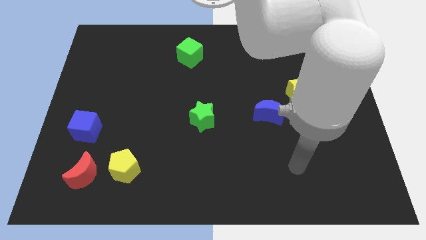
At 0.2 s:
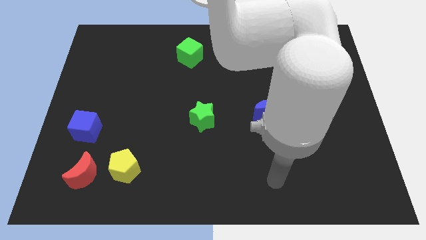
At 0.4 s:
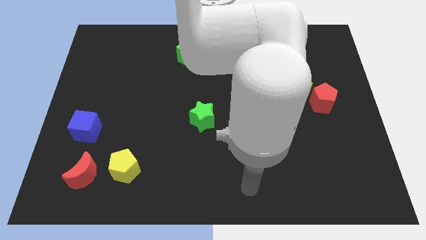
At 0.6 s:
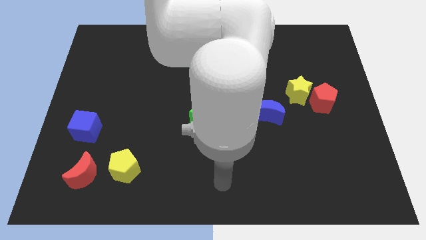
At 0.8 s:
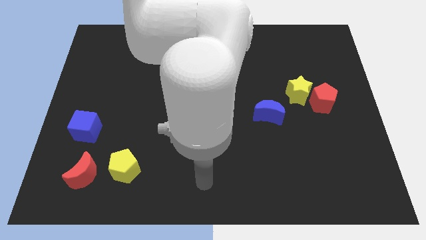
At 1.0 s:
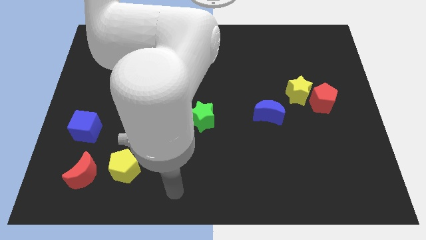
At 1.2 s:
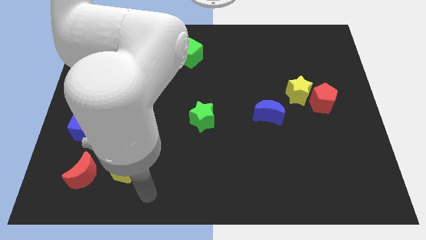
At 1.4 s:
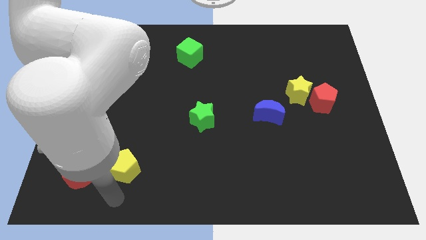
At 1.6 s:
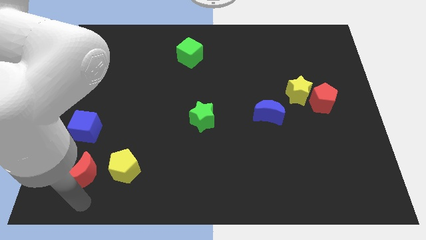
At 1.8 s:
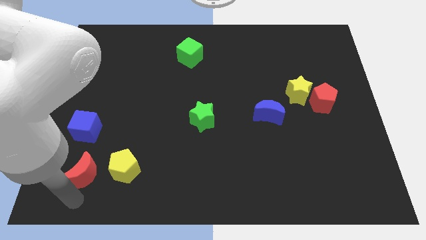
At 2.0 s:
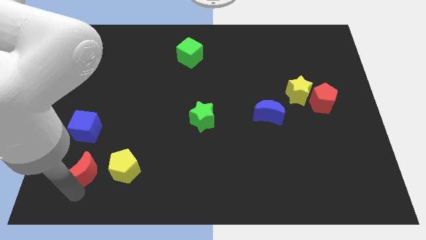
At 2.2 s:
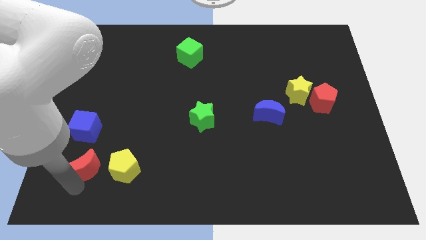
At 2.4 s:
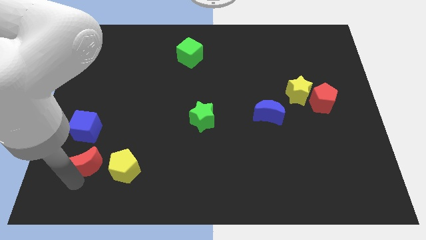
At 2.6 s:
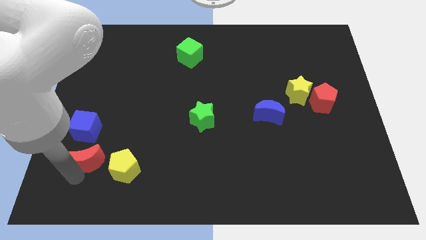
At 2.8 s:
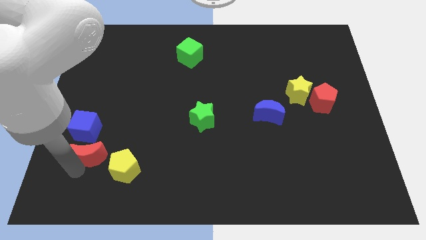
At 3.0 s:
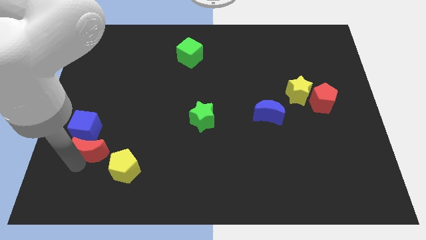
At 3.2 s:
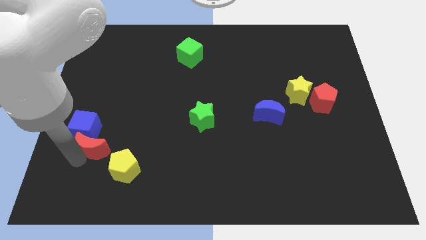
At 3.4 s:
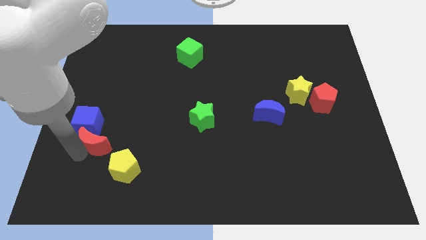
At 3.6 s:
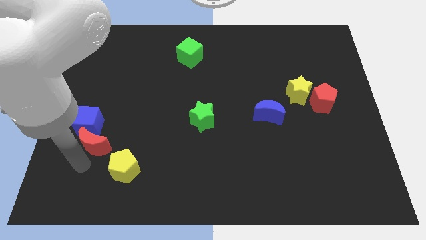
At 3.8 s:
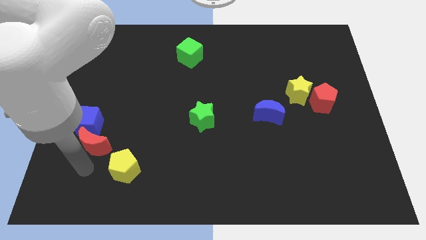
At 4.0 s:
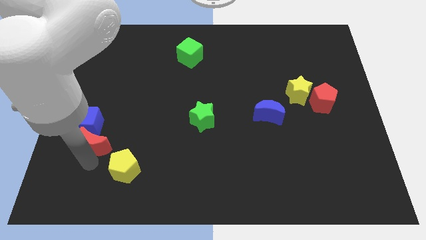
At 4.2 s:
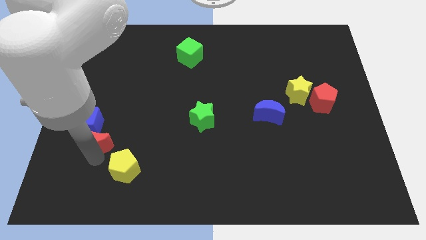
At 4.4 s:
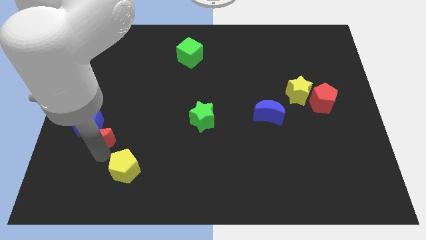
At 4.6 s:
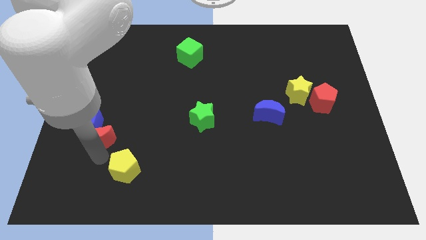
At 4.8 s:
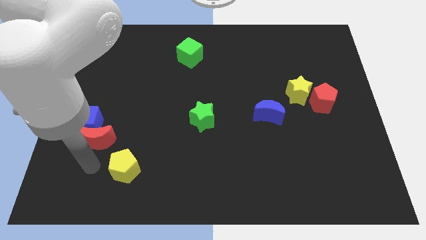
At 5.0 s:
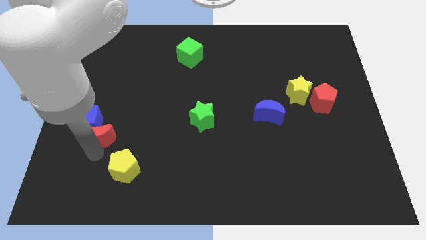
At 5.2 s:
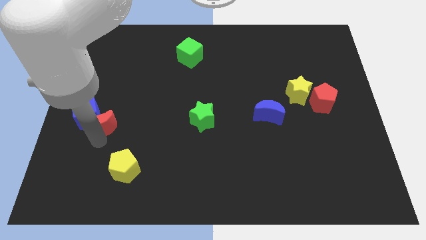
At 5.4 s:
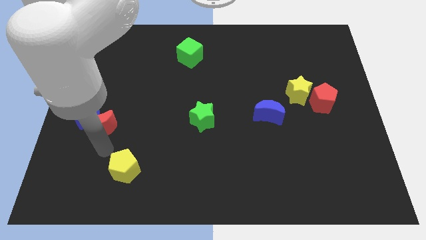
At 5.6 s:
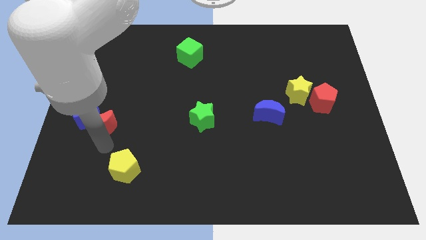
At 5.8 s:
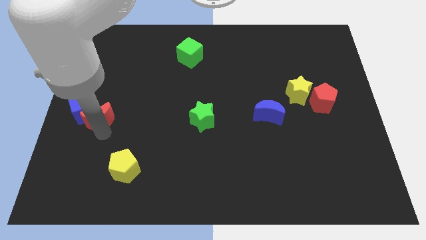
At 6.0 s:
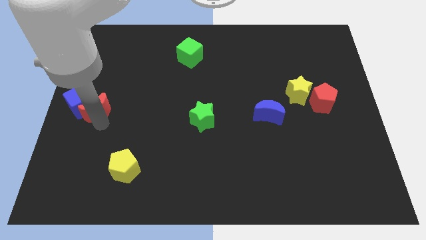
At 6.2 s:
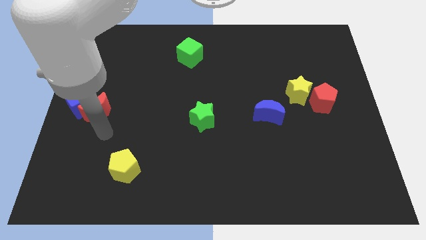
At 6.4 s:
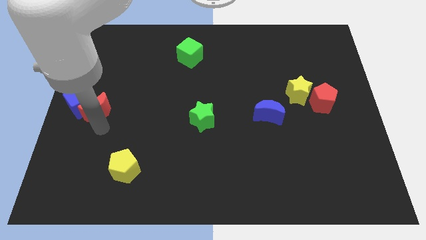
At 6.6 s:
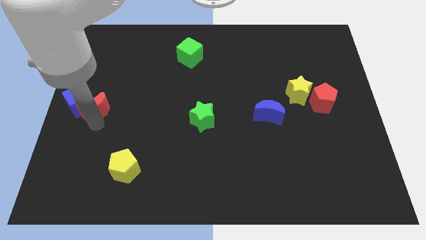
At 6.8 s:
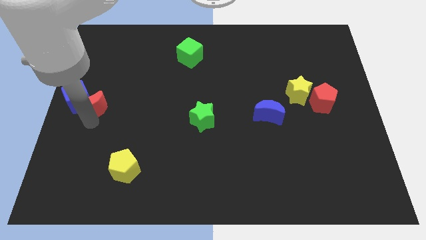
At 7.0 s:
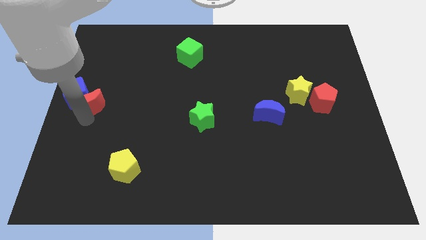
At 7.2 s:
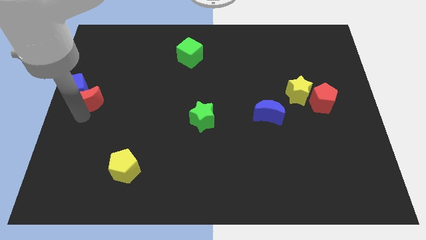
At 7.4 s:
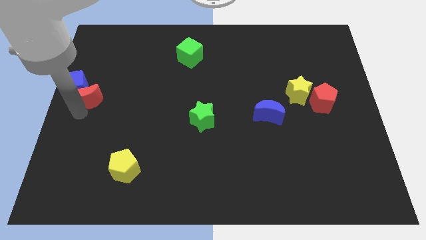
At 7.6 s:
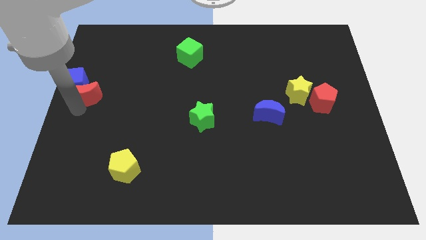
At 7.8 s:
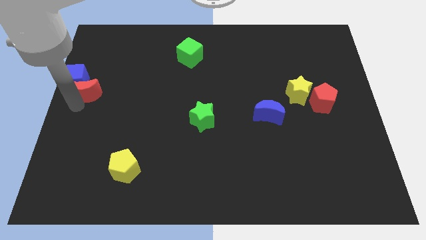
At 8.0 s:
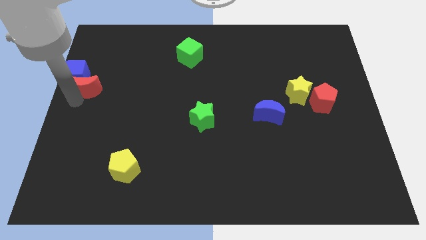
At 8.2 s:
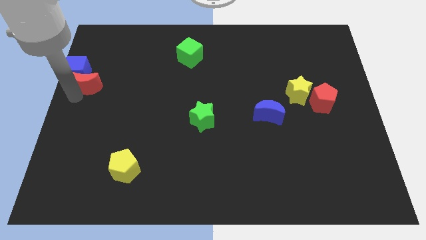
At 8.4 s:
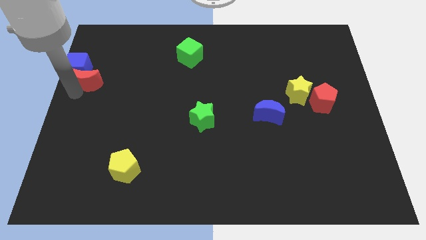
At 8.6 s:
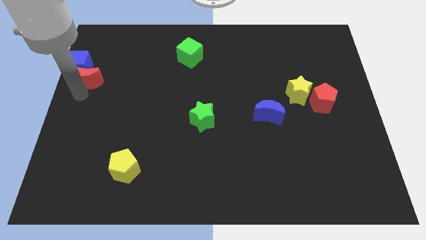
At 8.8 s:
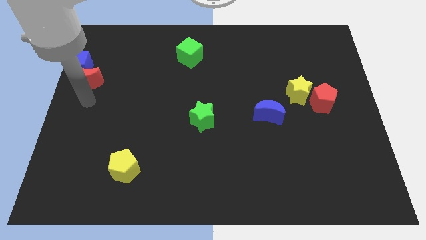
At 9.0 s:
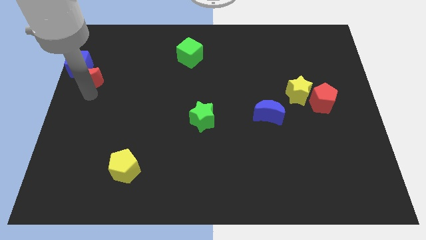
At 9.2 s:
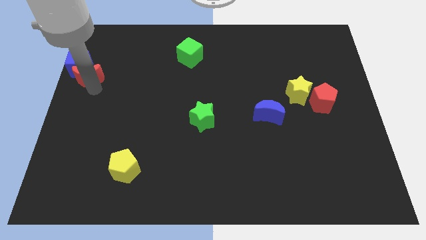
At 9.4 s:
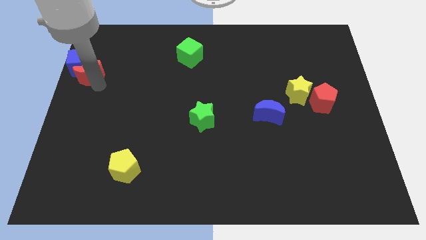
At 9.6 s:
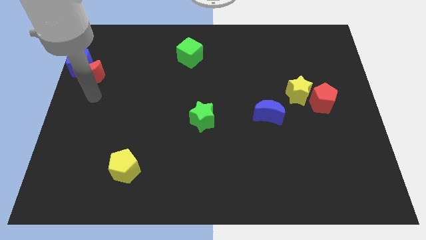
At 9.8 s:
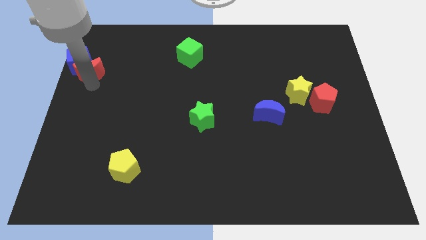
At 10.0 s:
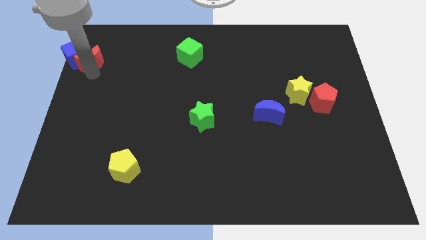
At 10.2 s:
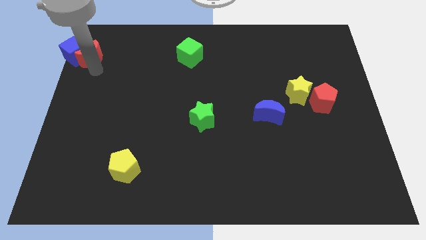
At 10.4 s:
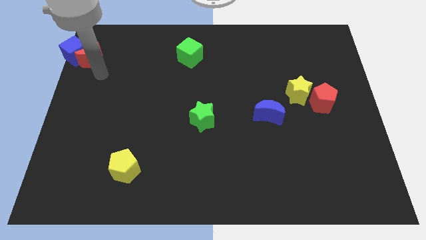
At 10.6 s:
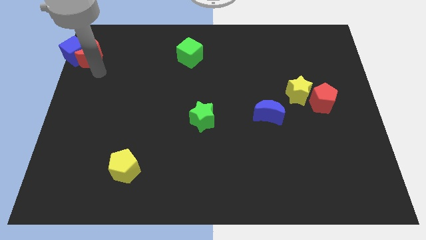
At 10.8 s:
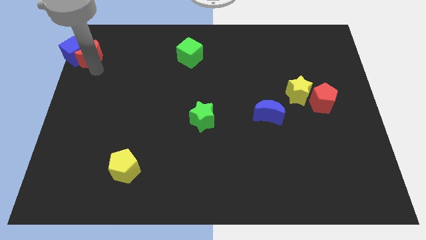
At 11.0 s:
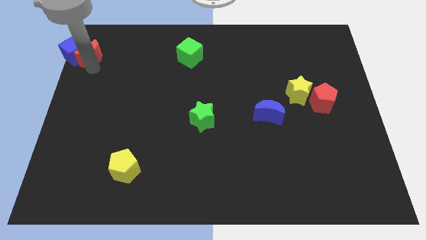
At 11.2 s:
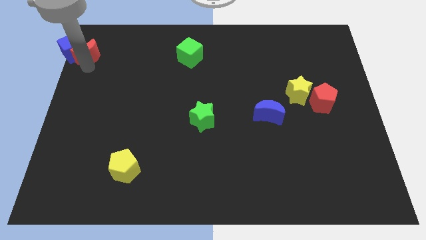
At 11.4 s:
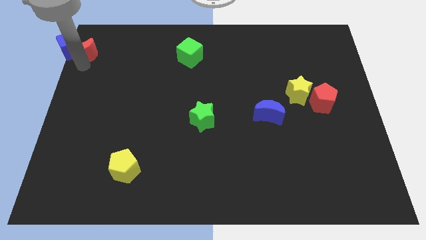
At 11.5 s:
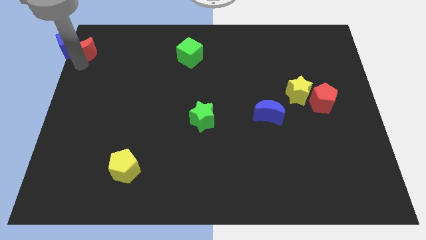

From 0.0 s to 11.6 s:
slide the red moon to the top left corner
